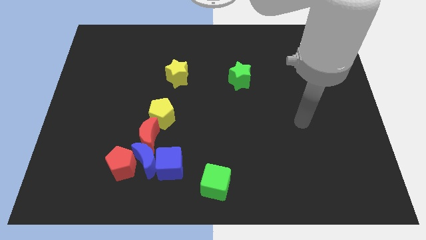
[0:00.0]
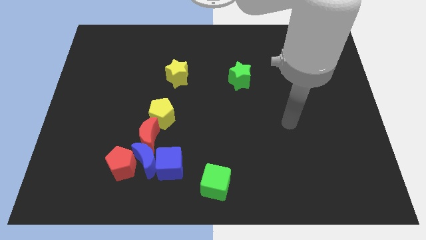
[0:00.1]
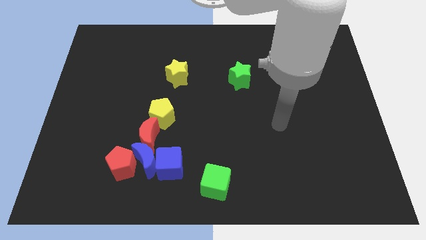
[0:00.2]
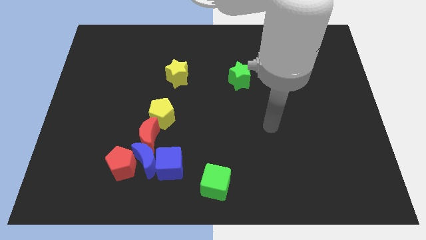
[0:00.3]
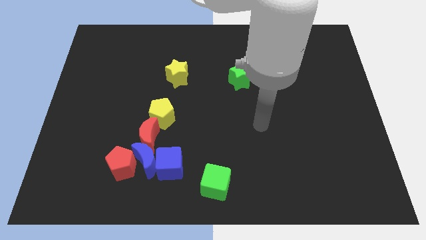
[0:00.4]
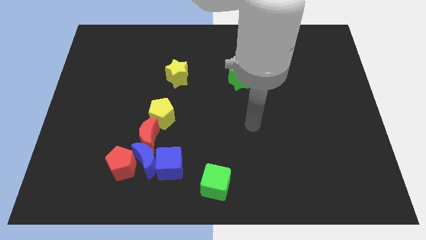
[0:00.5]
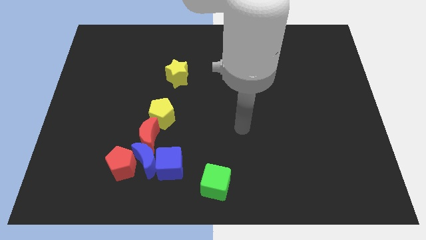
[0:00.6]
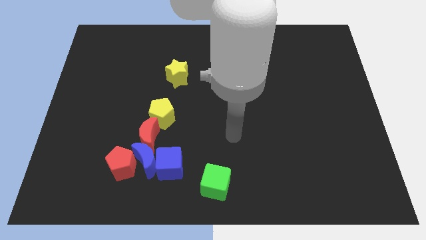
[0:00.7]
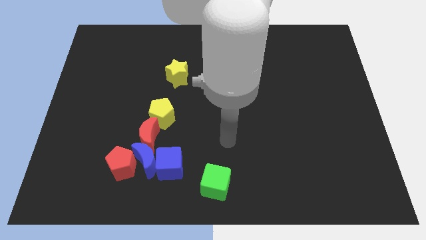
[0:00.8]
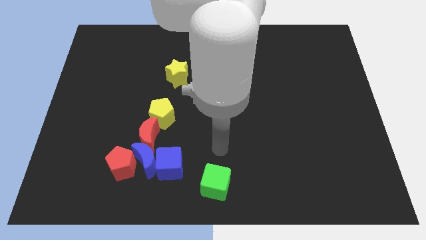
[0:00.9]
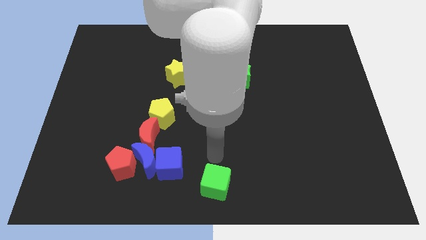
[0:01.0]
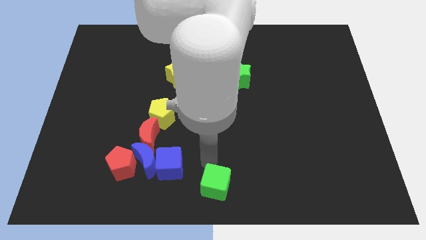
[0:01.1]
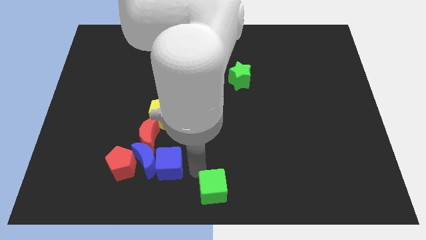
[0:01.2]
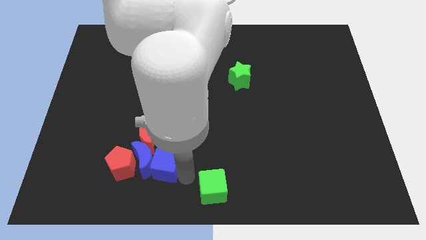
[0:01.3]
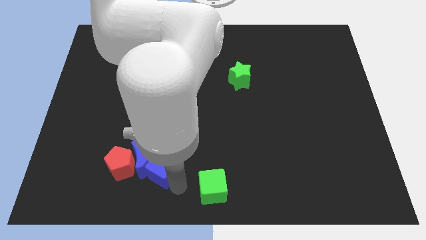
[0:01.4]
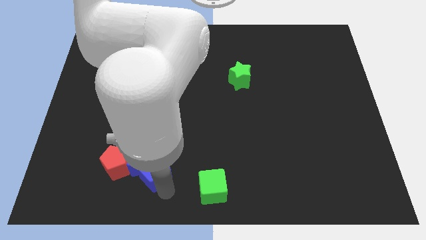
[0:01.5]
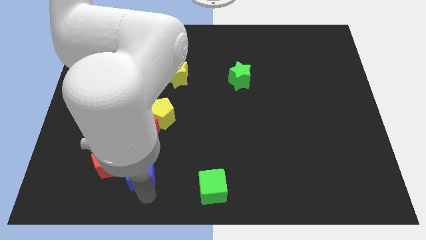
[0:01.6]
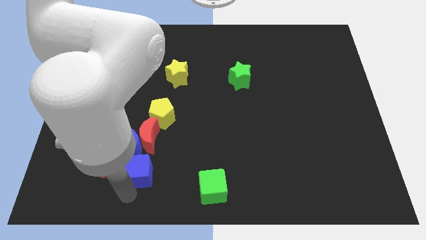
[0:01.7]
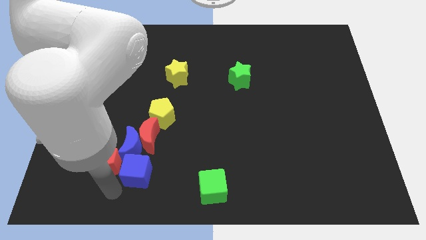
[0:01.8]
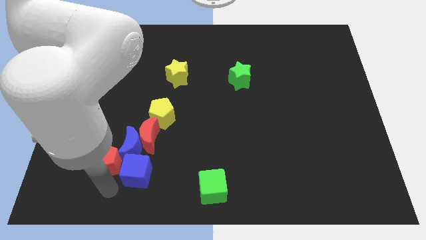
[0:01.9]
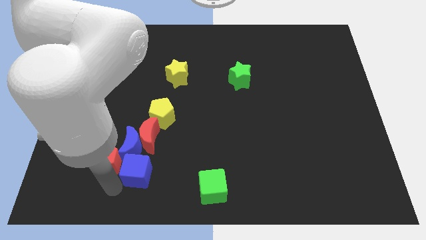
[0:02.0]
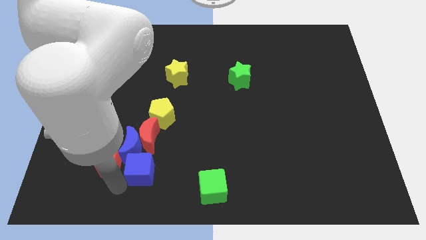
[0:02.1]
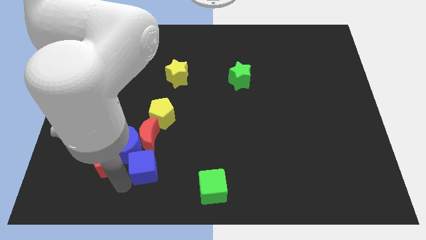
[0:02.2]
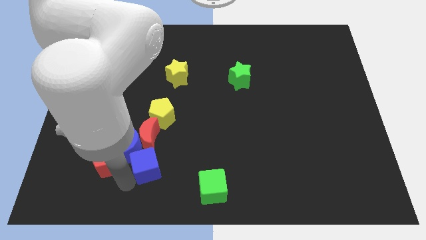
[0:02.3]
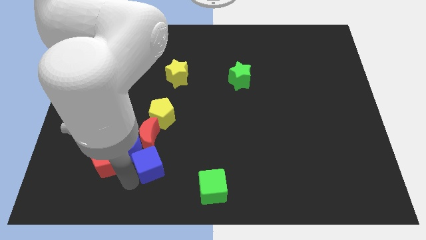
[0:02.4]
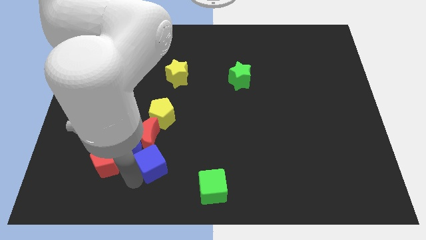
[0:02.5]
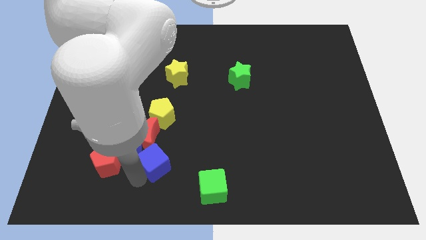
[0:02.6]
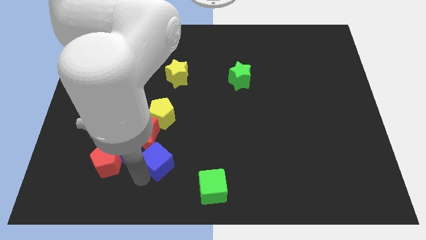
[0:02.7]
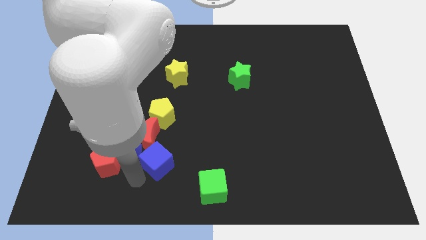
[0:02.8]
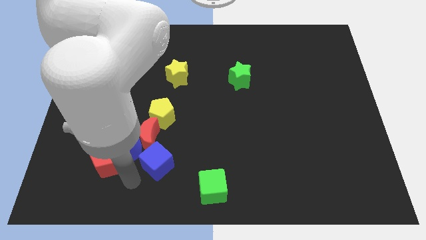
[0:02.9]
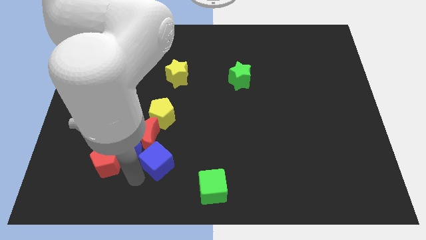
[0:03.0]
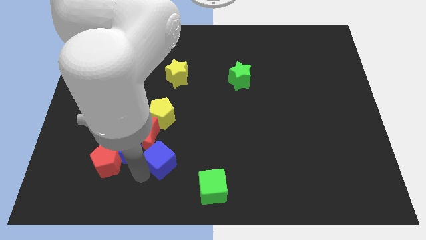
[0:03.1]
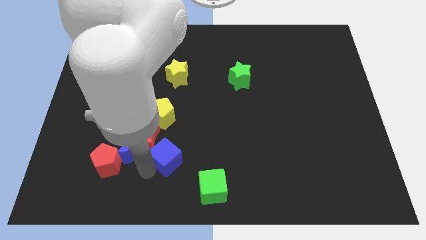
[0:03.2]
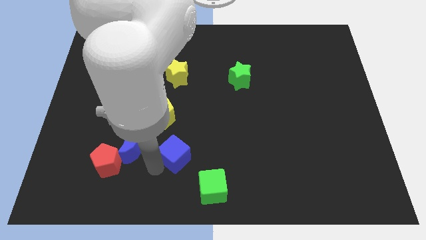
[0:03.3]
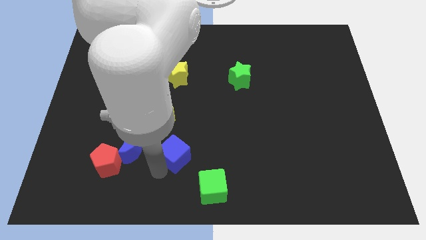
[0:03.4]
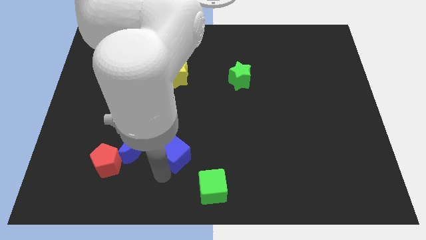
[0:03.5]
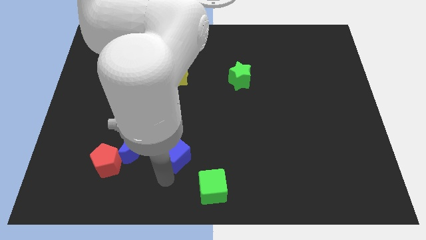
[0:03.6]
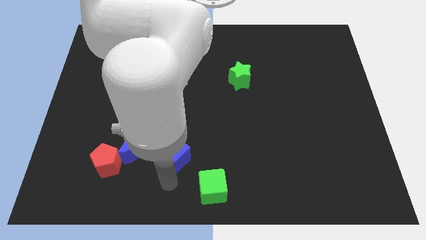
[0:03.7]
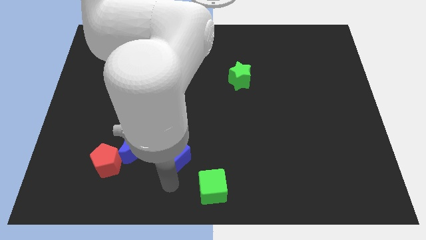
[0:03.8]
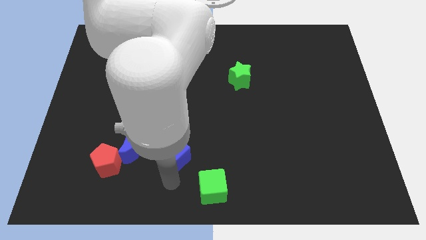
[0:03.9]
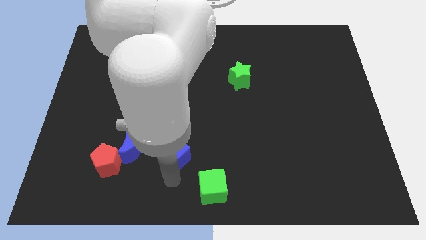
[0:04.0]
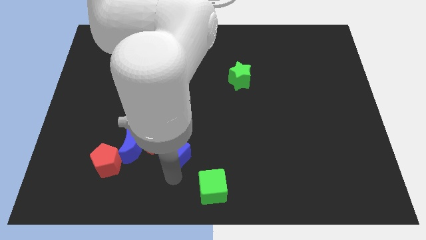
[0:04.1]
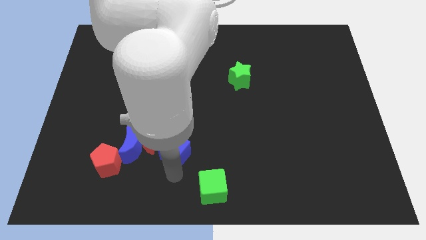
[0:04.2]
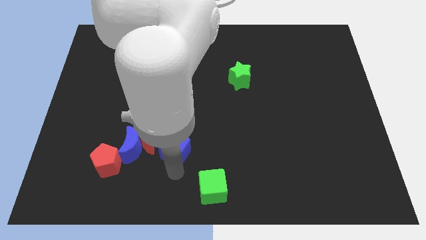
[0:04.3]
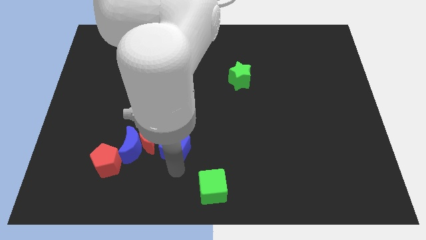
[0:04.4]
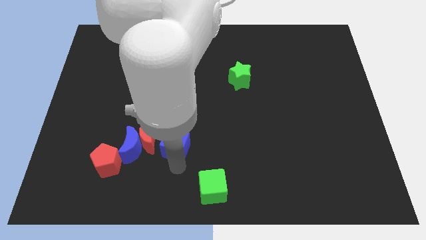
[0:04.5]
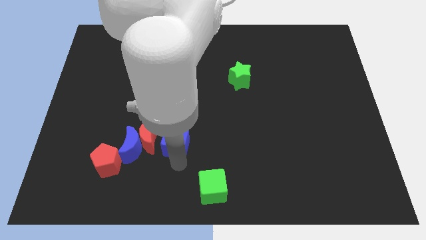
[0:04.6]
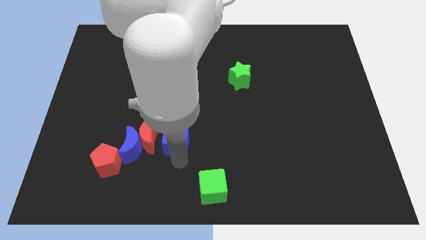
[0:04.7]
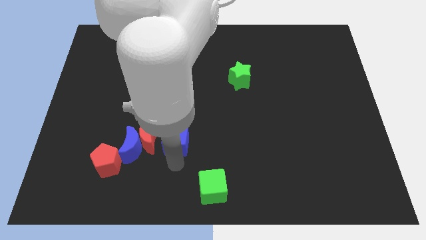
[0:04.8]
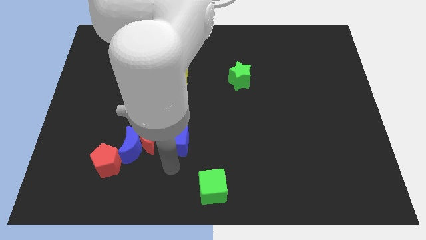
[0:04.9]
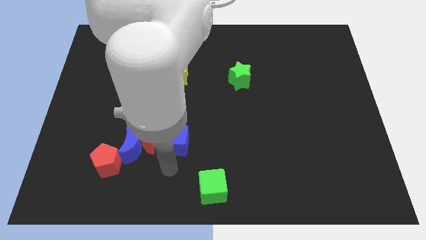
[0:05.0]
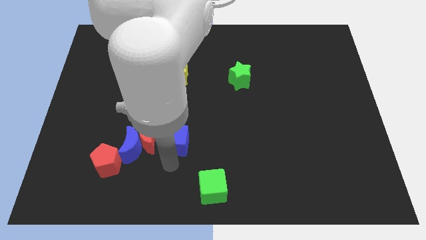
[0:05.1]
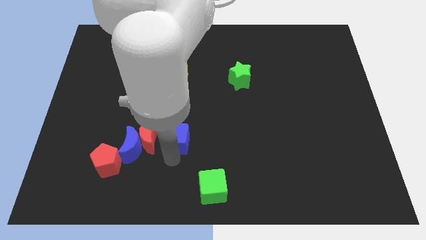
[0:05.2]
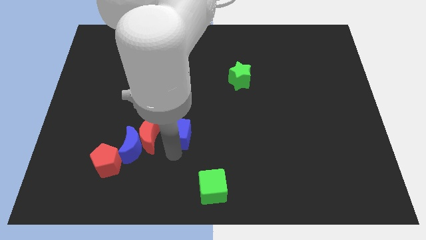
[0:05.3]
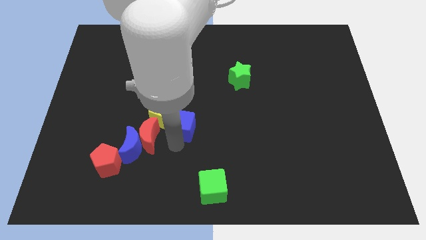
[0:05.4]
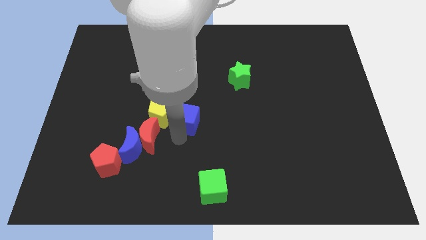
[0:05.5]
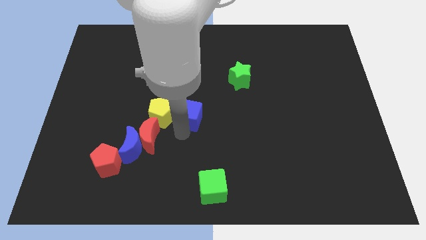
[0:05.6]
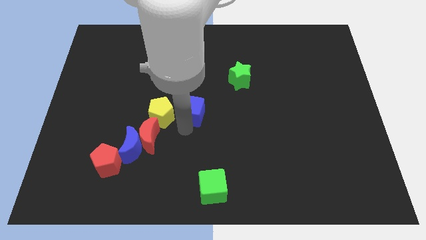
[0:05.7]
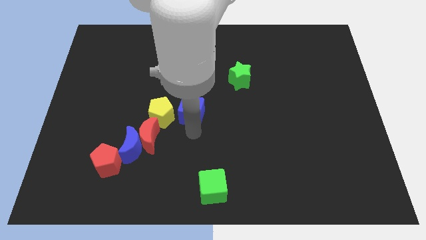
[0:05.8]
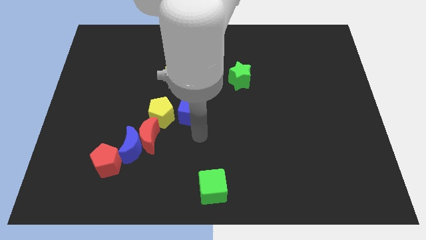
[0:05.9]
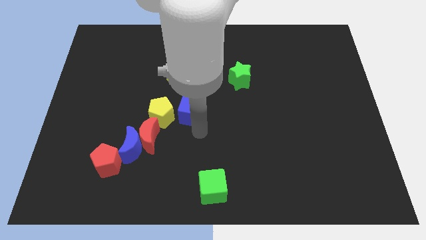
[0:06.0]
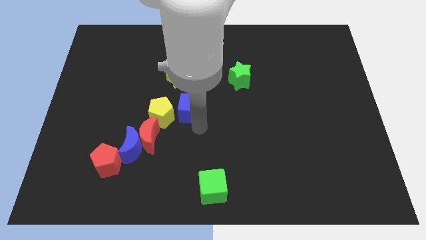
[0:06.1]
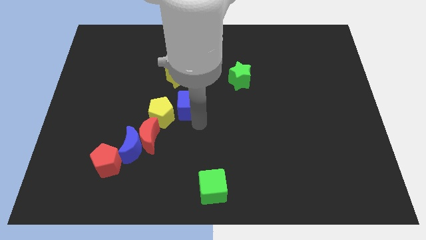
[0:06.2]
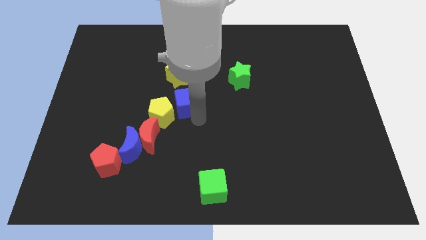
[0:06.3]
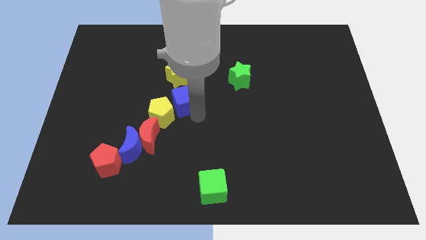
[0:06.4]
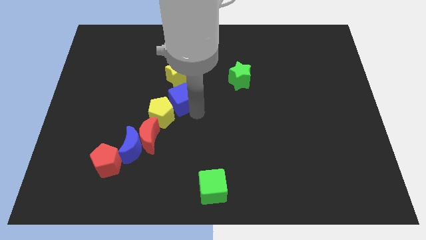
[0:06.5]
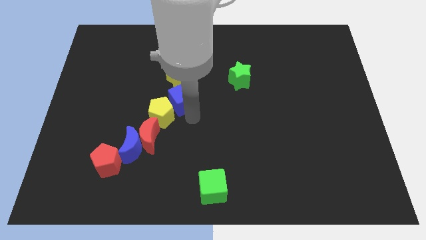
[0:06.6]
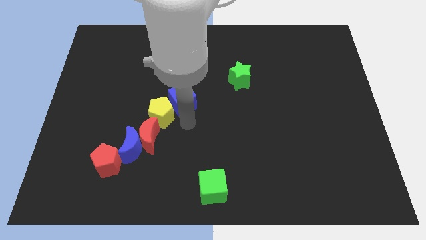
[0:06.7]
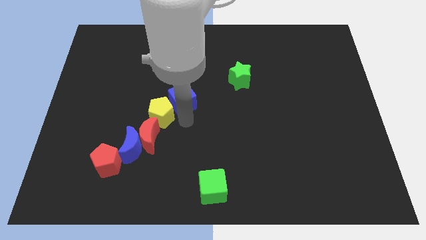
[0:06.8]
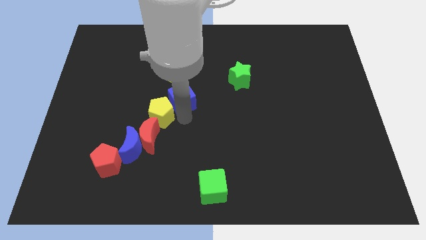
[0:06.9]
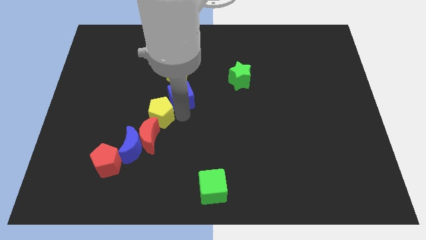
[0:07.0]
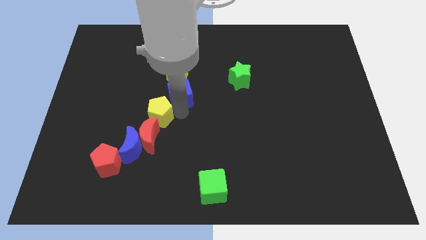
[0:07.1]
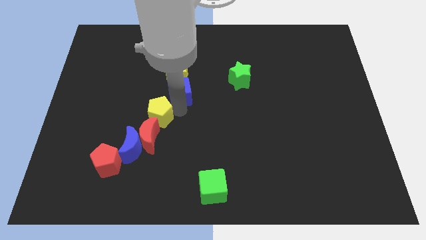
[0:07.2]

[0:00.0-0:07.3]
put the blue cube towards the yellow star
